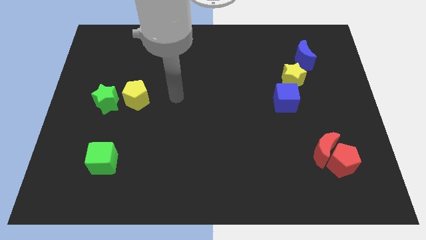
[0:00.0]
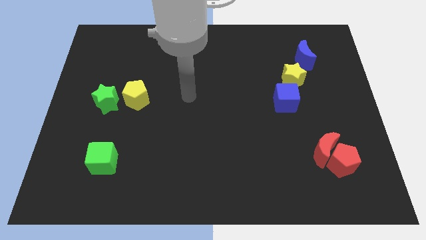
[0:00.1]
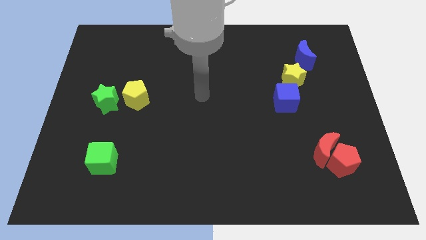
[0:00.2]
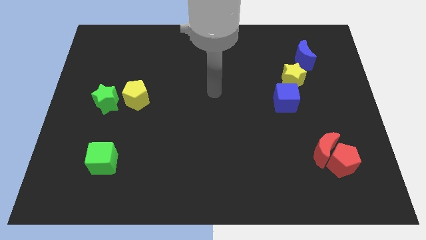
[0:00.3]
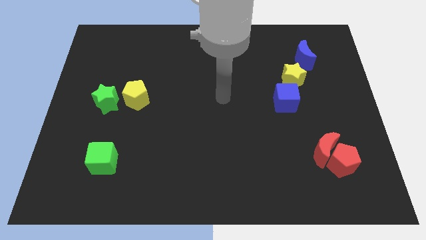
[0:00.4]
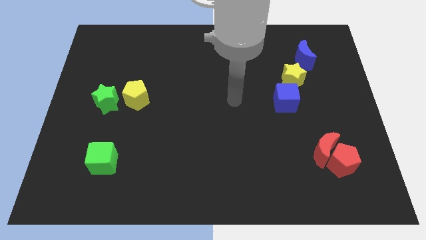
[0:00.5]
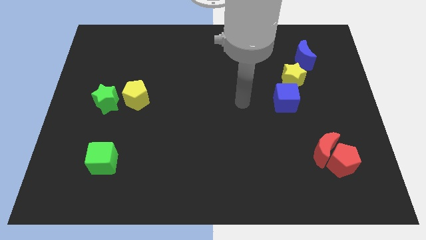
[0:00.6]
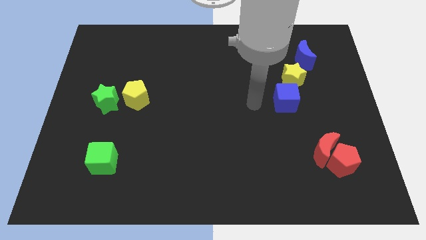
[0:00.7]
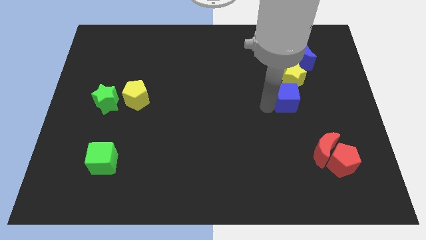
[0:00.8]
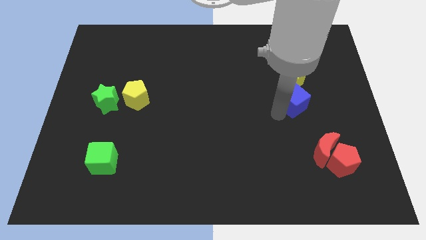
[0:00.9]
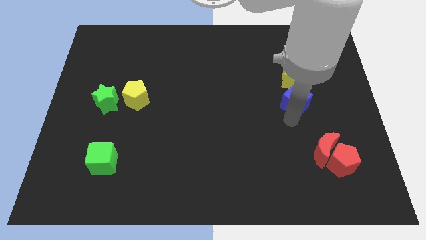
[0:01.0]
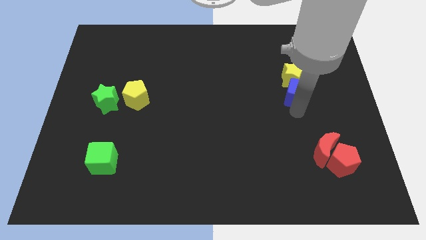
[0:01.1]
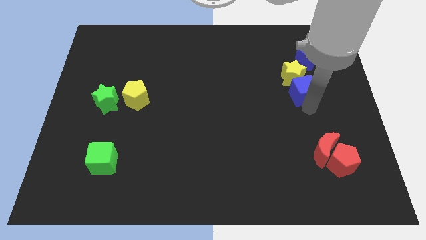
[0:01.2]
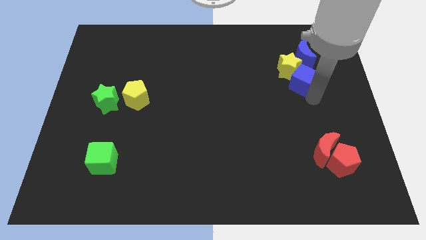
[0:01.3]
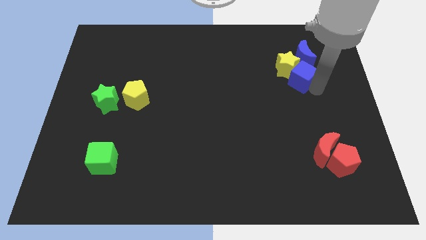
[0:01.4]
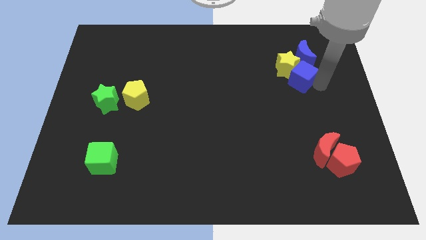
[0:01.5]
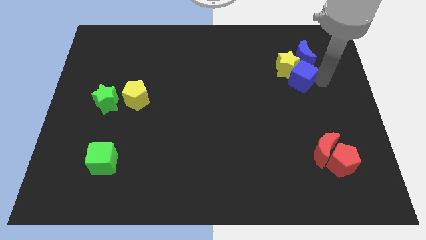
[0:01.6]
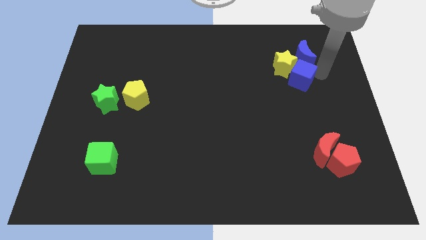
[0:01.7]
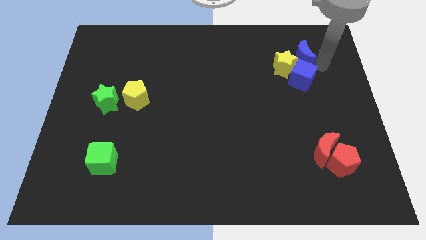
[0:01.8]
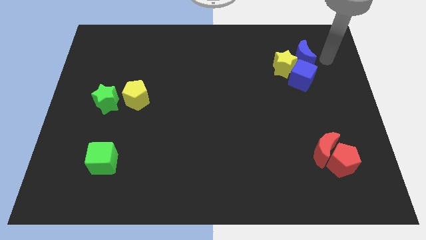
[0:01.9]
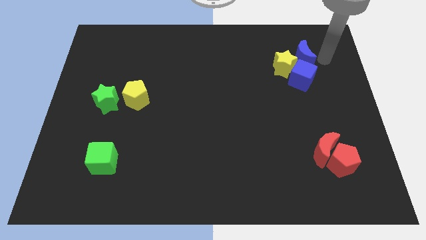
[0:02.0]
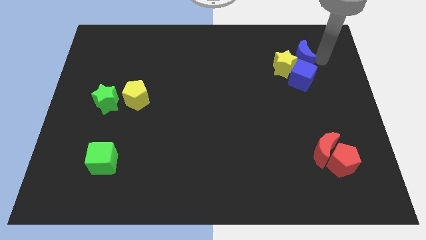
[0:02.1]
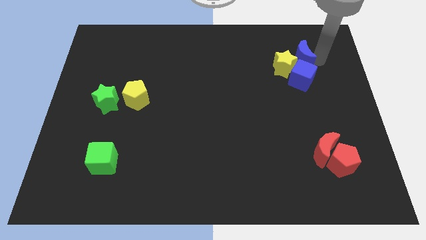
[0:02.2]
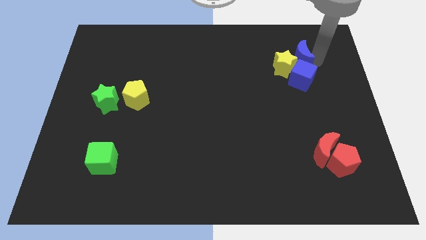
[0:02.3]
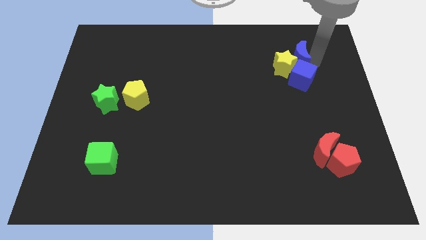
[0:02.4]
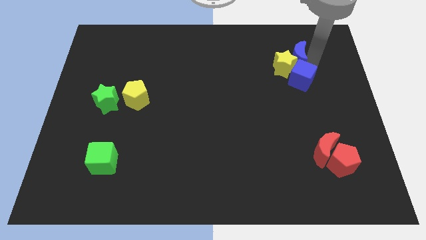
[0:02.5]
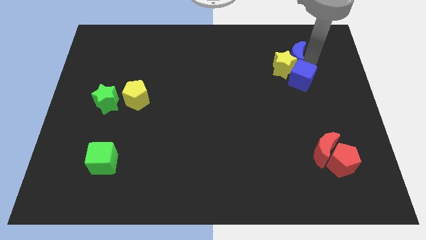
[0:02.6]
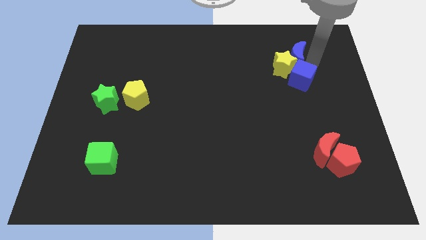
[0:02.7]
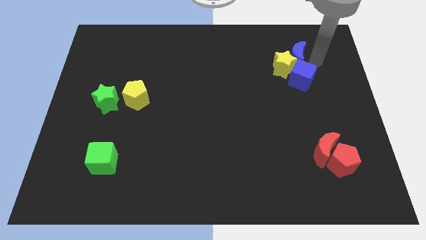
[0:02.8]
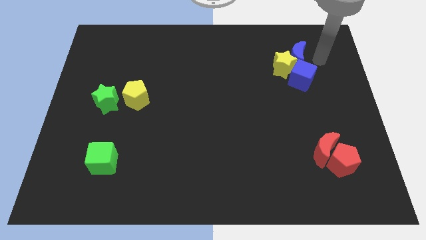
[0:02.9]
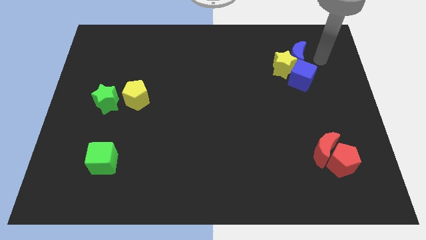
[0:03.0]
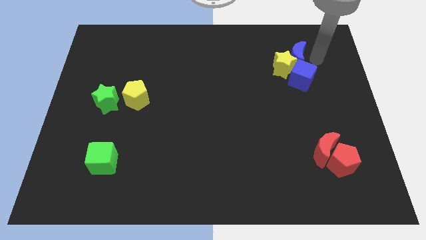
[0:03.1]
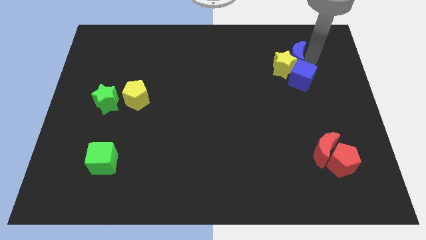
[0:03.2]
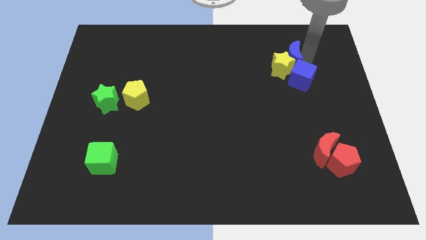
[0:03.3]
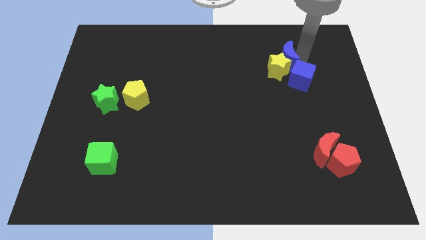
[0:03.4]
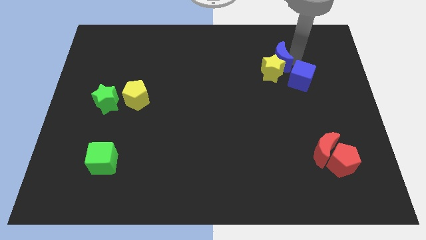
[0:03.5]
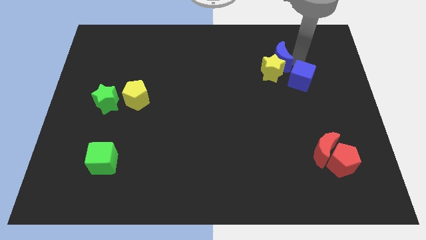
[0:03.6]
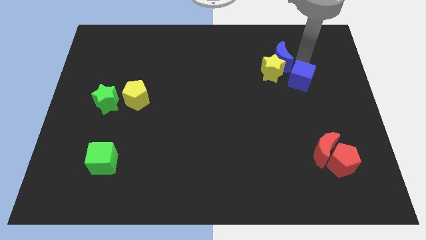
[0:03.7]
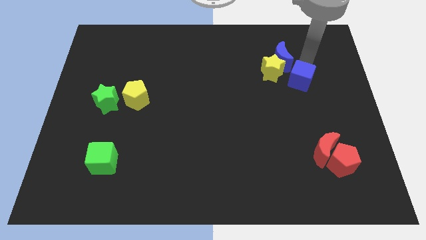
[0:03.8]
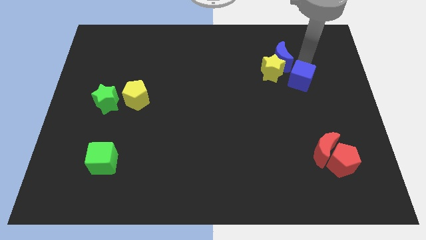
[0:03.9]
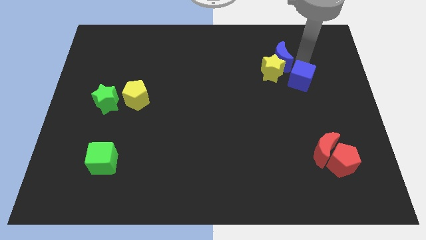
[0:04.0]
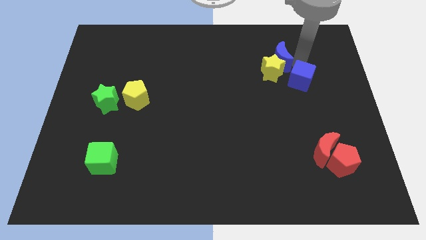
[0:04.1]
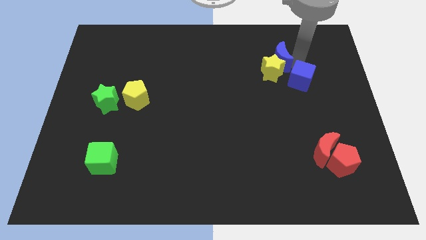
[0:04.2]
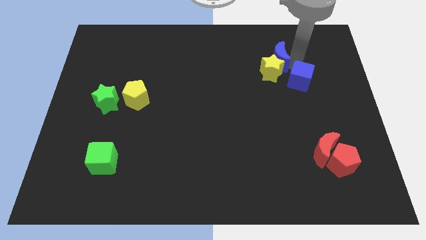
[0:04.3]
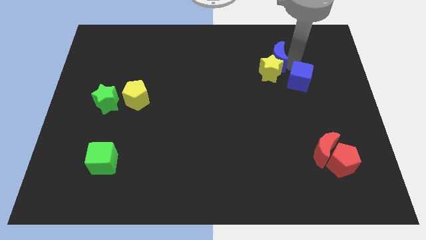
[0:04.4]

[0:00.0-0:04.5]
slightly move the blue moon left

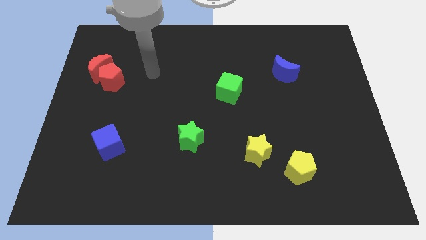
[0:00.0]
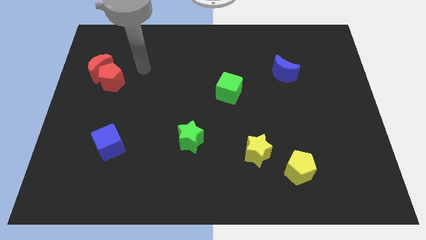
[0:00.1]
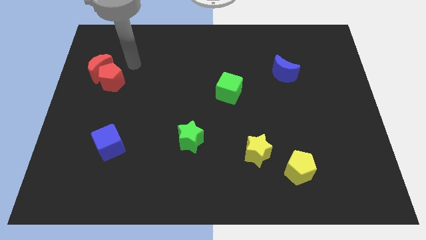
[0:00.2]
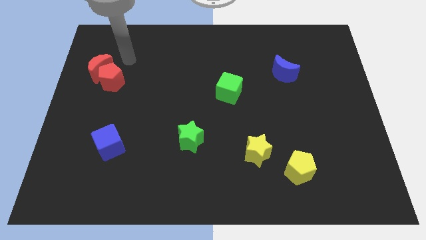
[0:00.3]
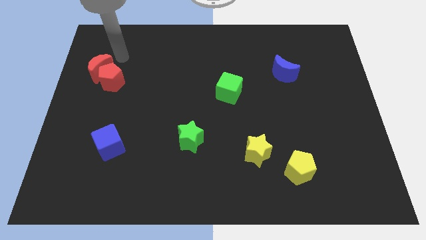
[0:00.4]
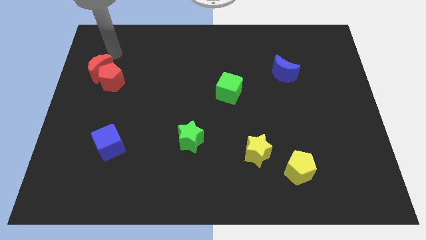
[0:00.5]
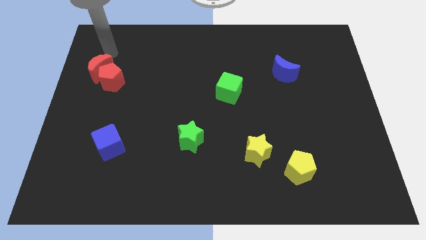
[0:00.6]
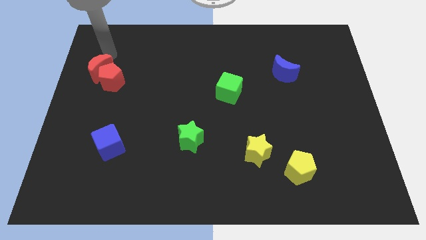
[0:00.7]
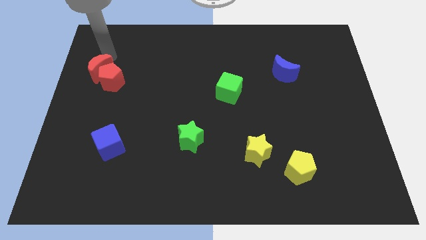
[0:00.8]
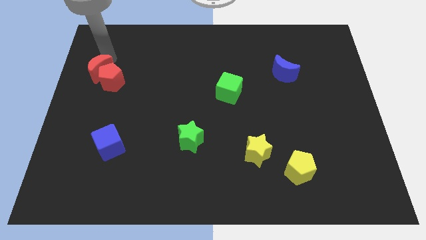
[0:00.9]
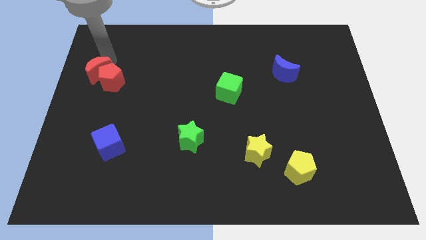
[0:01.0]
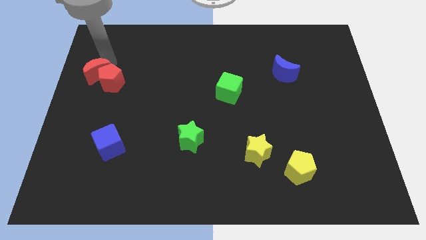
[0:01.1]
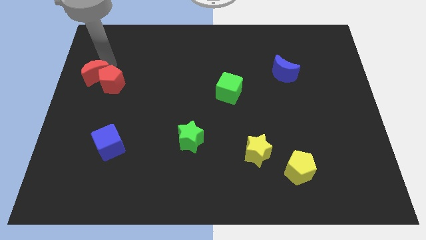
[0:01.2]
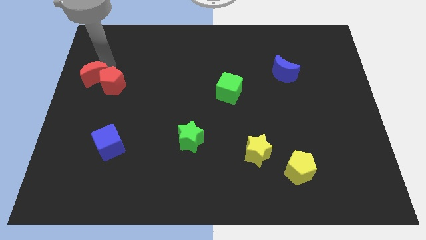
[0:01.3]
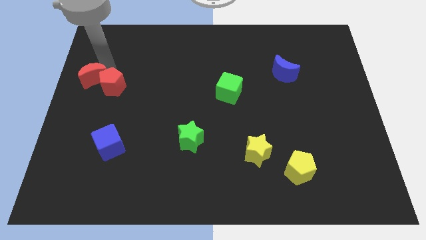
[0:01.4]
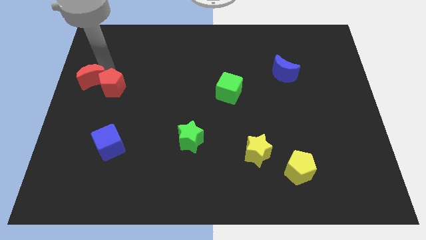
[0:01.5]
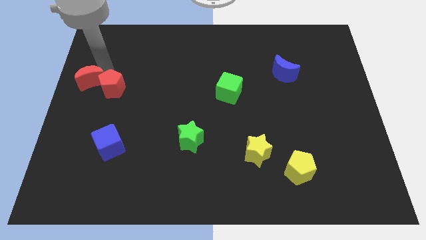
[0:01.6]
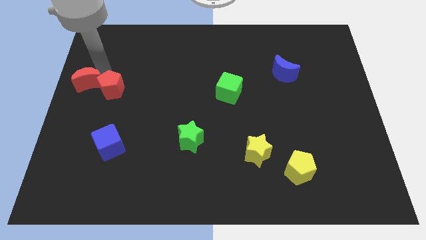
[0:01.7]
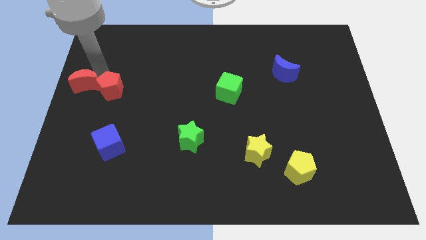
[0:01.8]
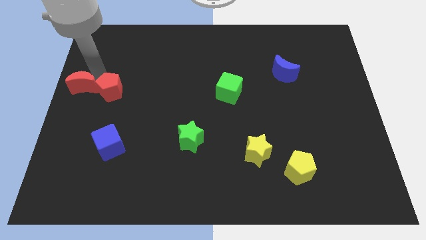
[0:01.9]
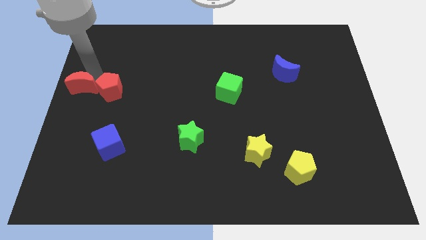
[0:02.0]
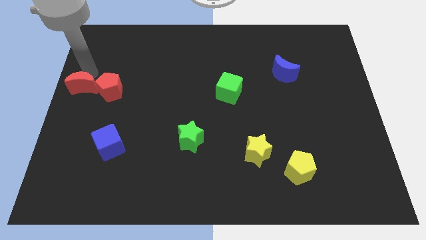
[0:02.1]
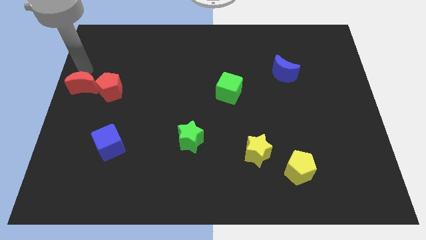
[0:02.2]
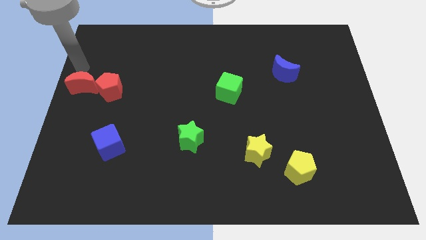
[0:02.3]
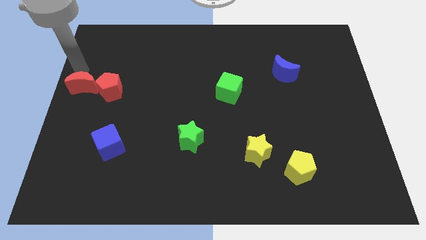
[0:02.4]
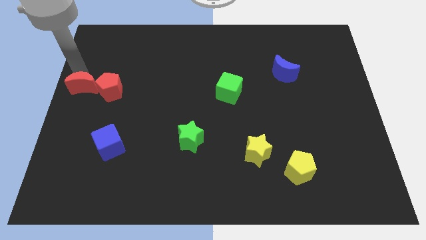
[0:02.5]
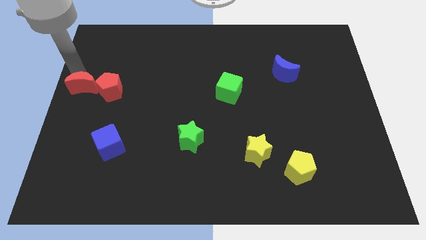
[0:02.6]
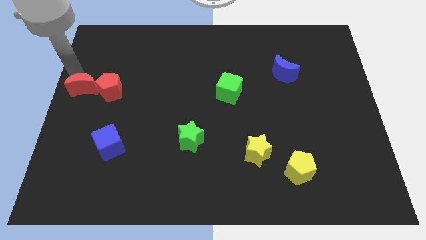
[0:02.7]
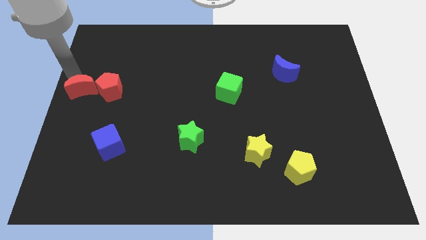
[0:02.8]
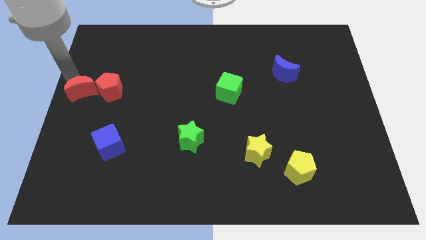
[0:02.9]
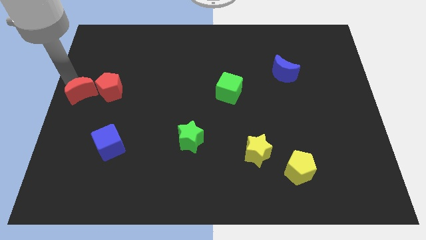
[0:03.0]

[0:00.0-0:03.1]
move the red moon somewhat downwards
